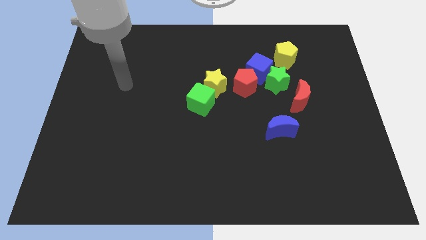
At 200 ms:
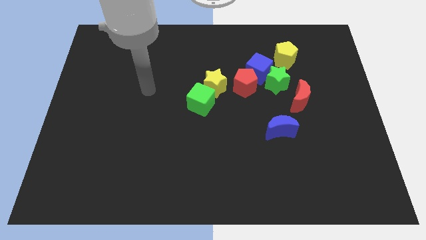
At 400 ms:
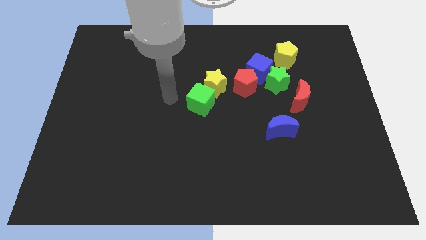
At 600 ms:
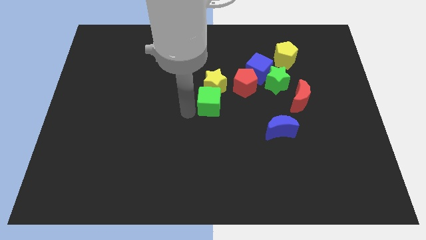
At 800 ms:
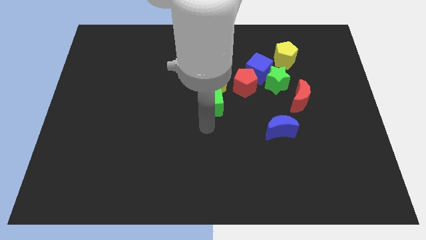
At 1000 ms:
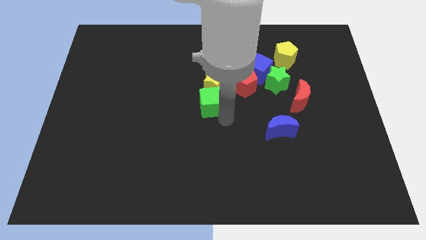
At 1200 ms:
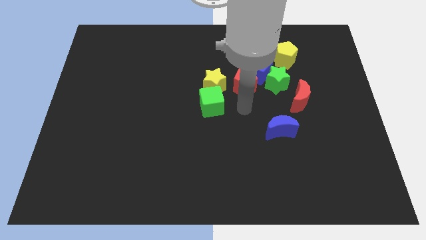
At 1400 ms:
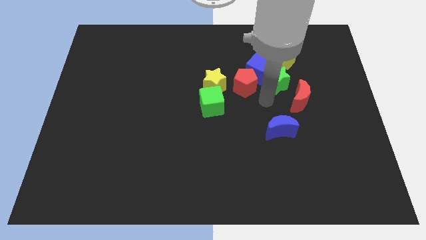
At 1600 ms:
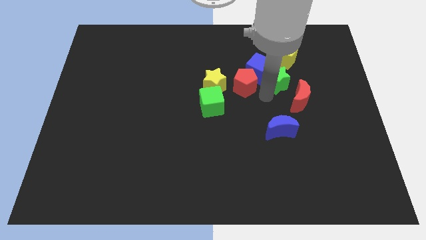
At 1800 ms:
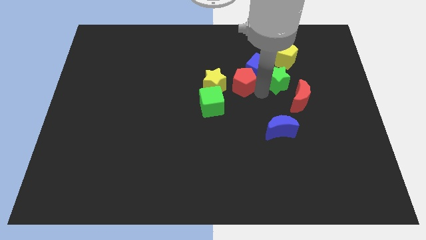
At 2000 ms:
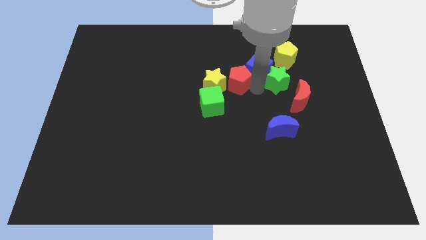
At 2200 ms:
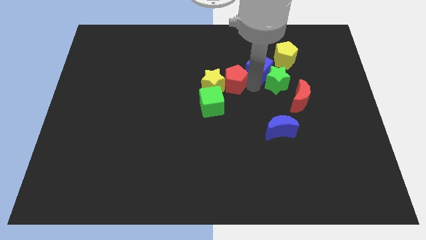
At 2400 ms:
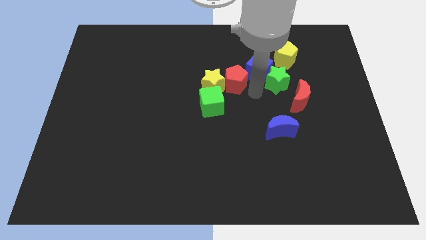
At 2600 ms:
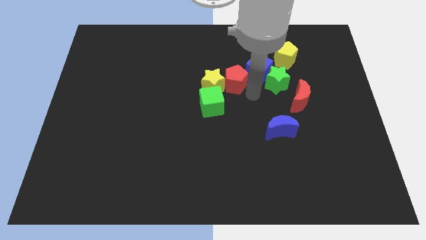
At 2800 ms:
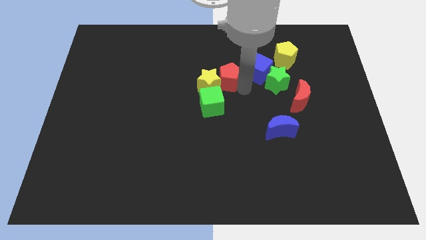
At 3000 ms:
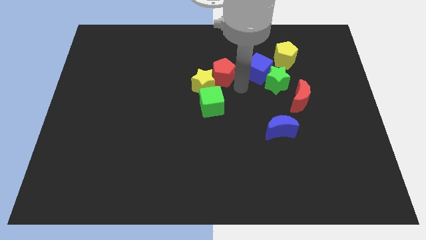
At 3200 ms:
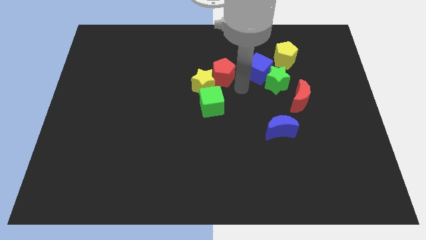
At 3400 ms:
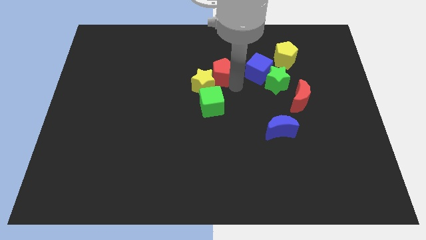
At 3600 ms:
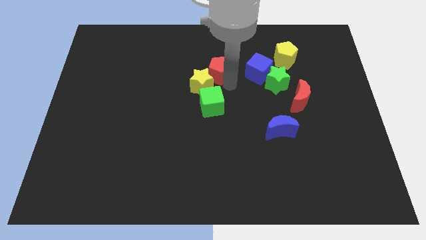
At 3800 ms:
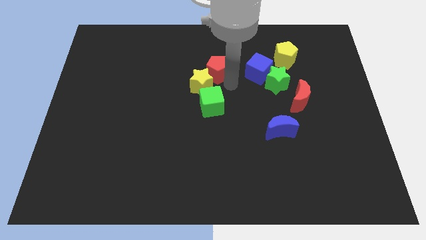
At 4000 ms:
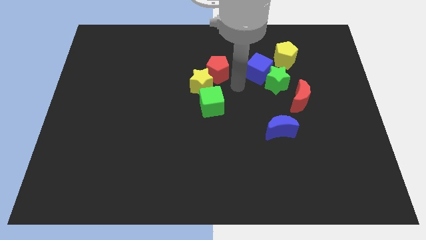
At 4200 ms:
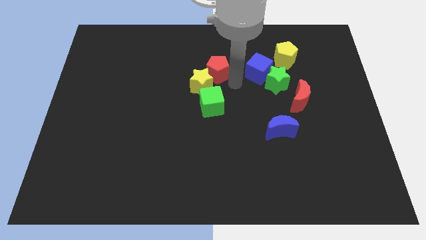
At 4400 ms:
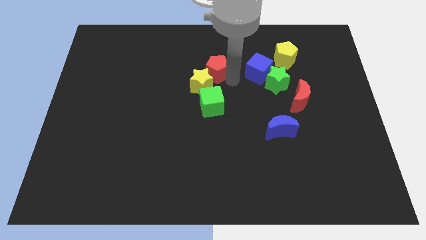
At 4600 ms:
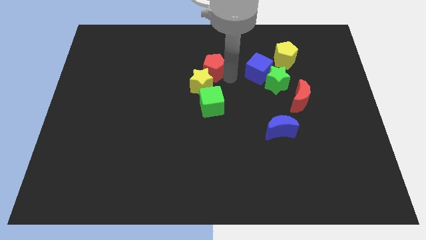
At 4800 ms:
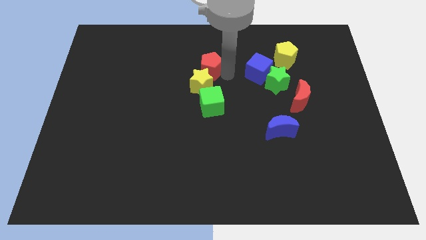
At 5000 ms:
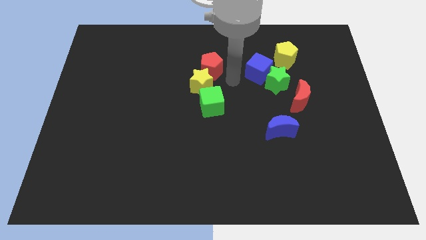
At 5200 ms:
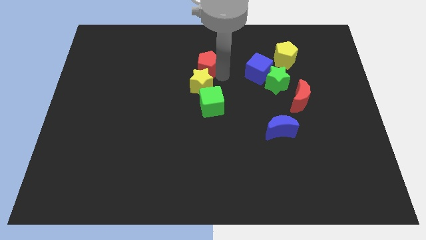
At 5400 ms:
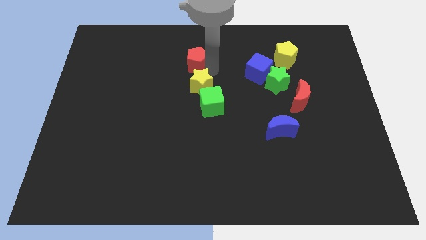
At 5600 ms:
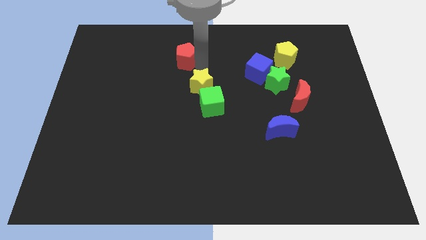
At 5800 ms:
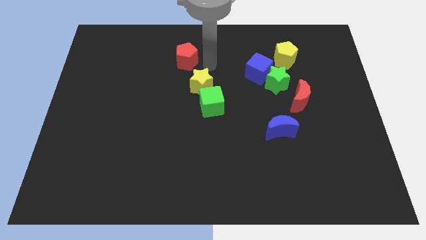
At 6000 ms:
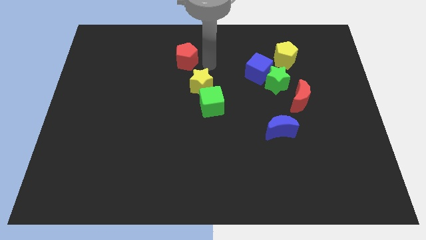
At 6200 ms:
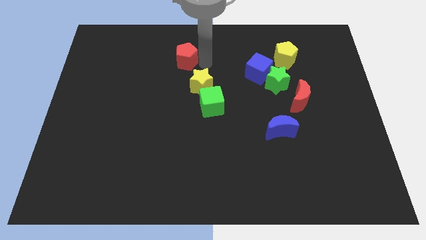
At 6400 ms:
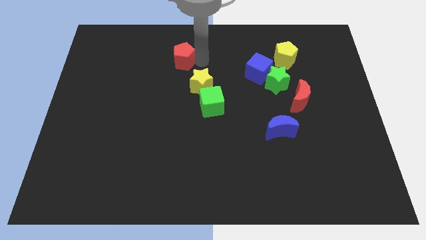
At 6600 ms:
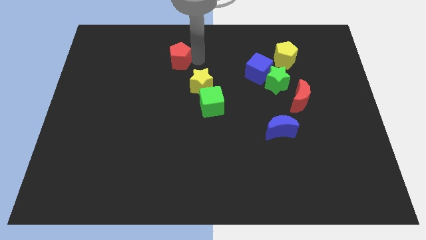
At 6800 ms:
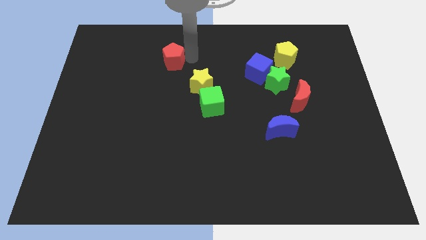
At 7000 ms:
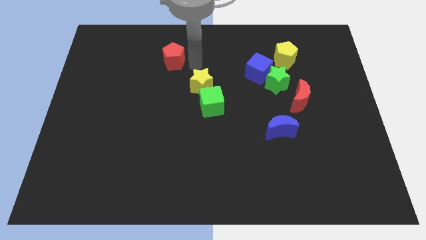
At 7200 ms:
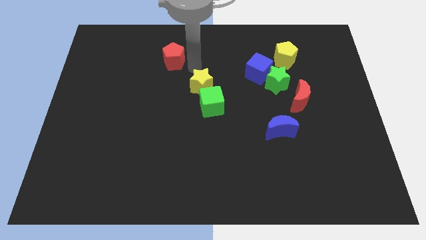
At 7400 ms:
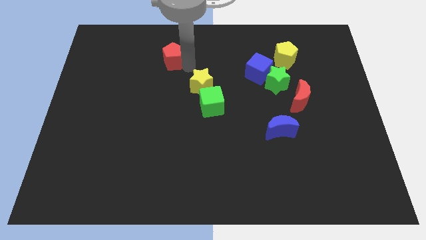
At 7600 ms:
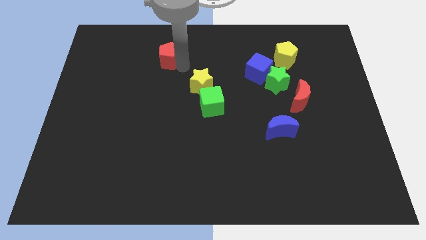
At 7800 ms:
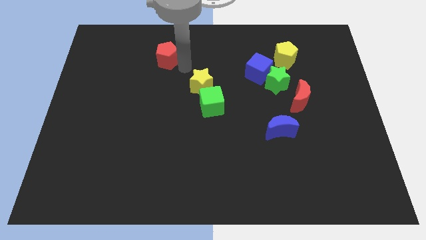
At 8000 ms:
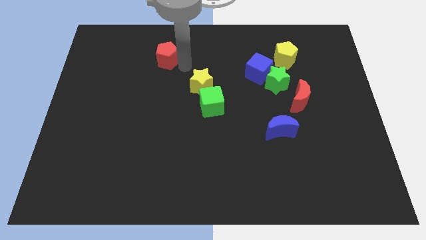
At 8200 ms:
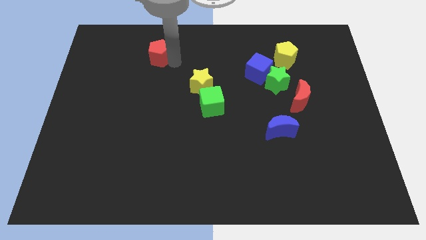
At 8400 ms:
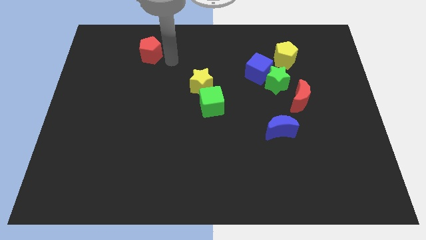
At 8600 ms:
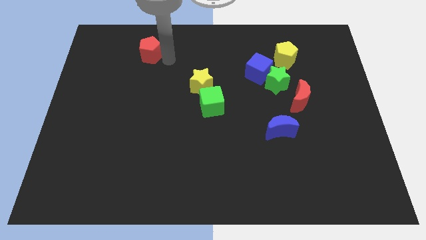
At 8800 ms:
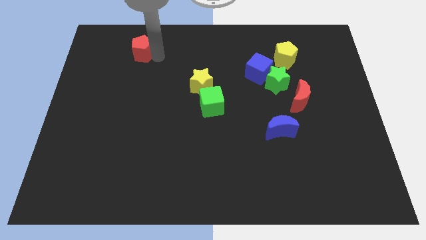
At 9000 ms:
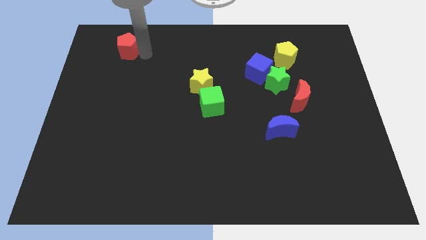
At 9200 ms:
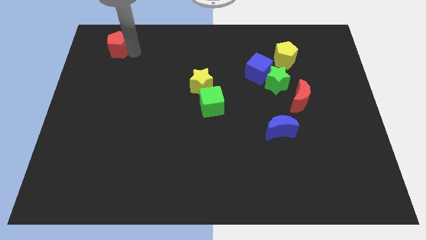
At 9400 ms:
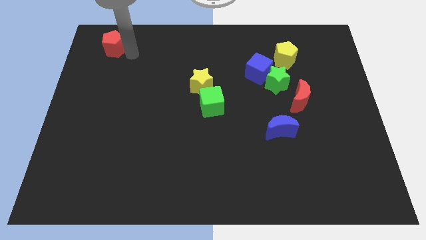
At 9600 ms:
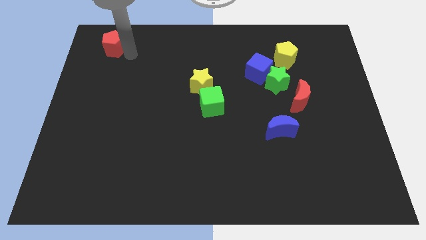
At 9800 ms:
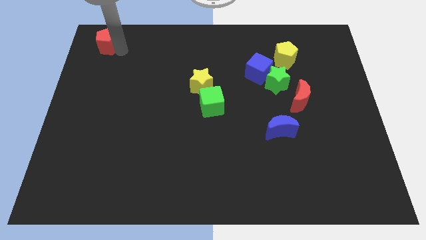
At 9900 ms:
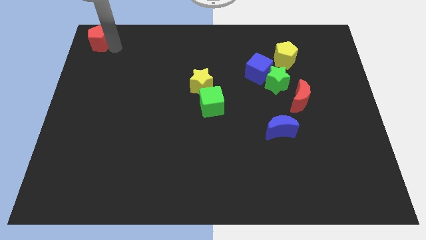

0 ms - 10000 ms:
move the red pentagon to the top left of the board
